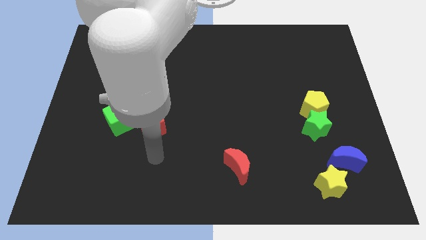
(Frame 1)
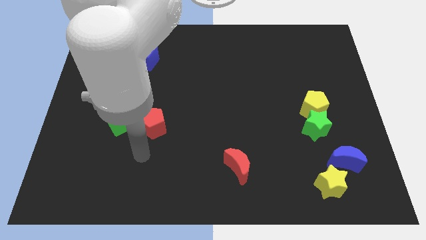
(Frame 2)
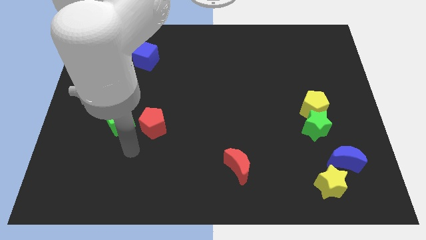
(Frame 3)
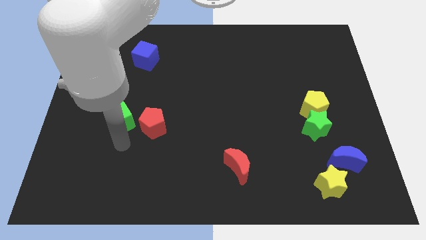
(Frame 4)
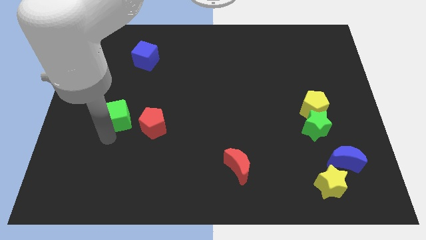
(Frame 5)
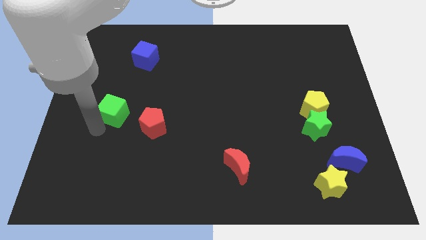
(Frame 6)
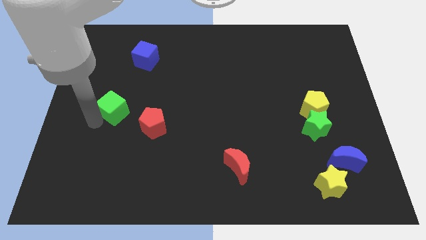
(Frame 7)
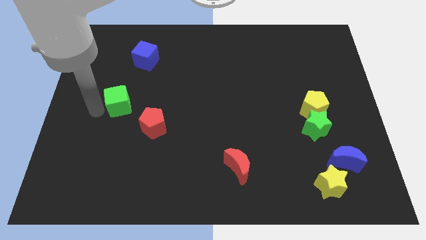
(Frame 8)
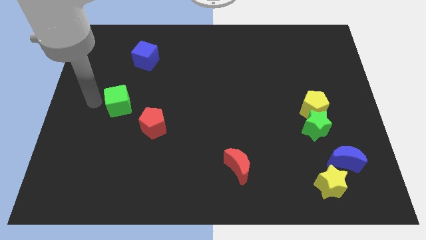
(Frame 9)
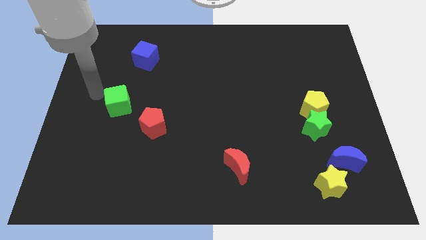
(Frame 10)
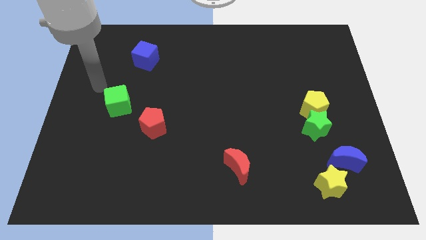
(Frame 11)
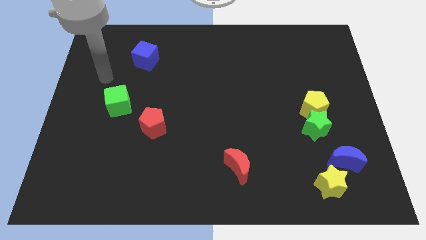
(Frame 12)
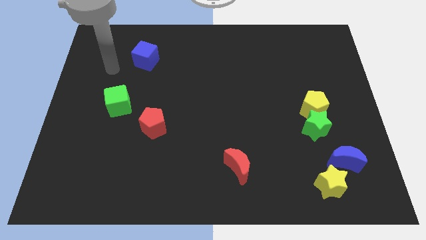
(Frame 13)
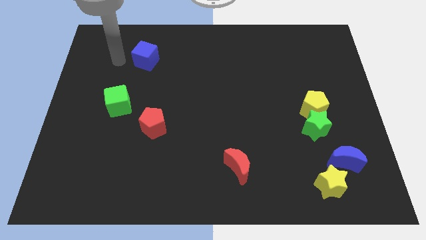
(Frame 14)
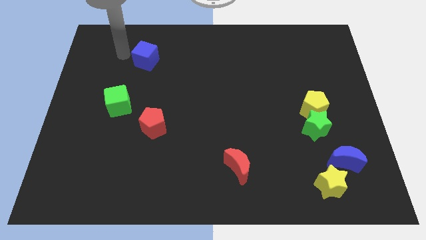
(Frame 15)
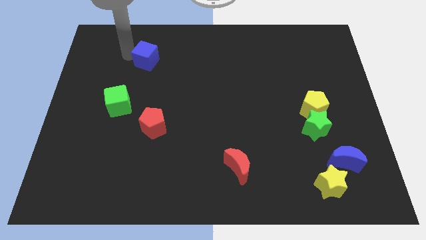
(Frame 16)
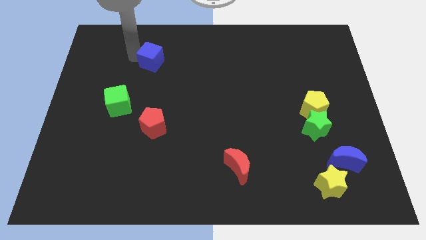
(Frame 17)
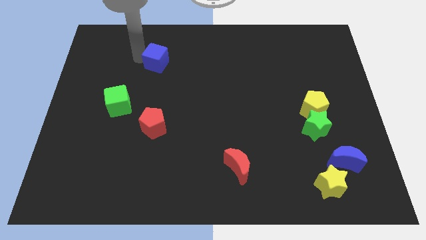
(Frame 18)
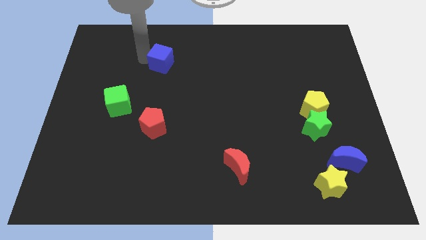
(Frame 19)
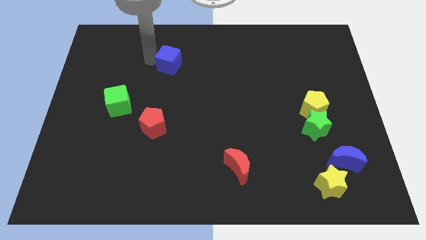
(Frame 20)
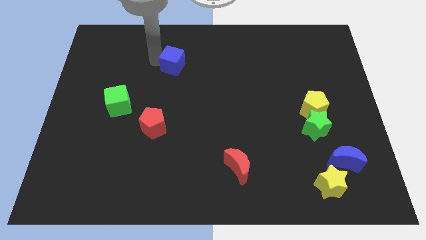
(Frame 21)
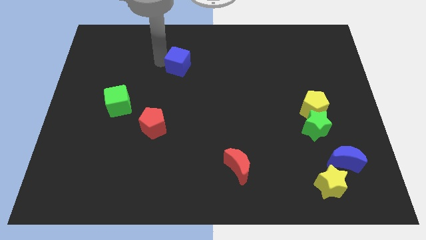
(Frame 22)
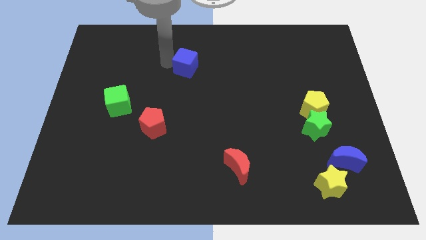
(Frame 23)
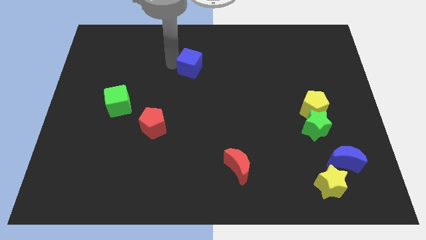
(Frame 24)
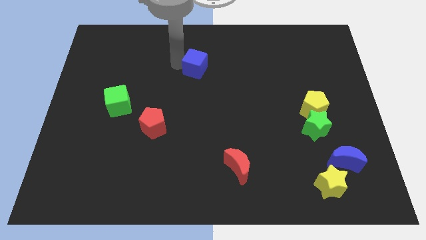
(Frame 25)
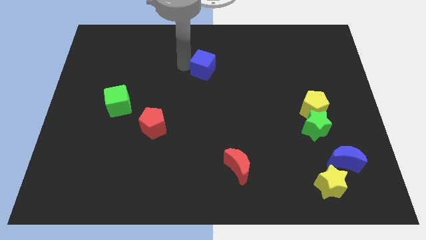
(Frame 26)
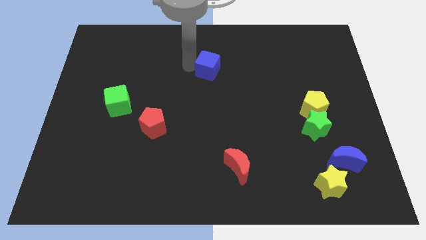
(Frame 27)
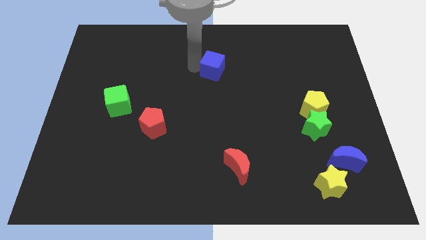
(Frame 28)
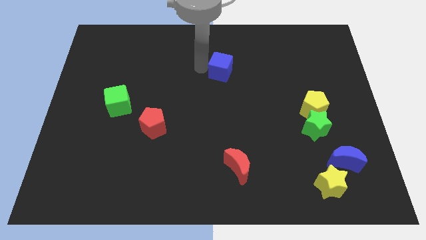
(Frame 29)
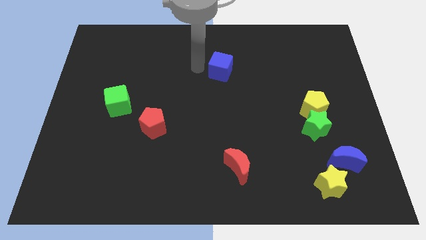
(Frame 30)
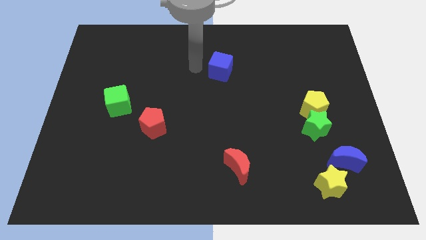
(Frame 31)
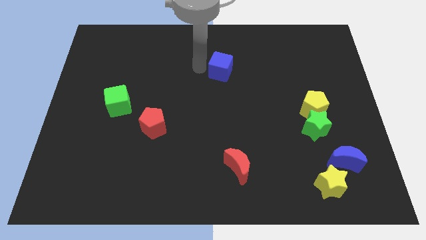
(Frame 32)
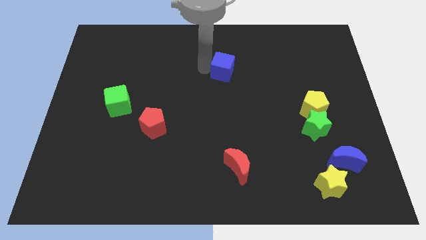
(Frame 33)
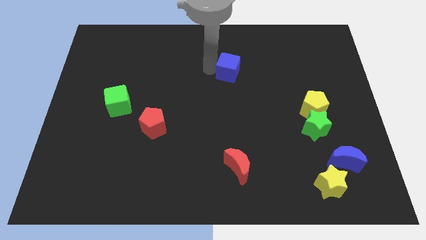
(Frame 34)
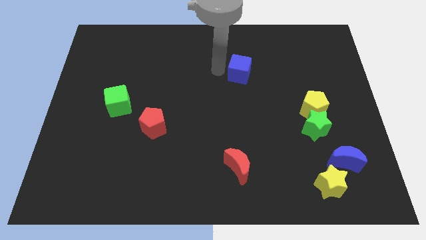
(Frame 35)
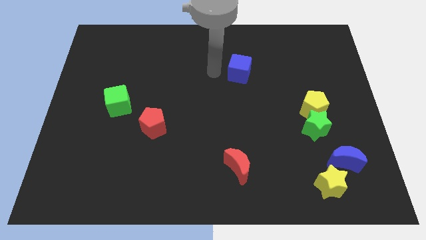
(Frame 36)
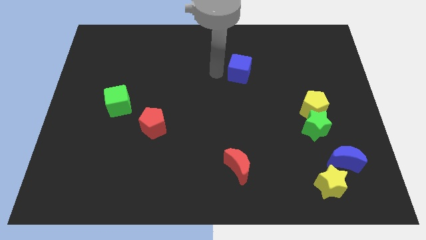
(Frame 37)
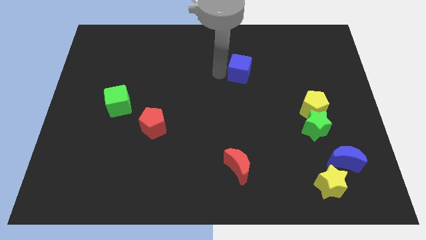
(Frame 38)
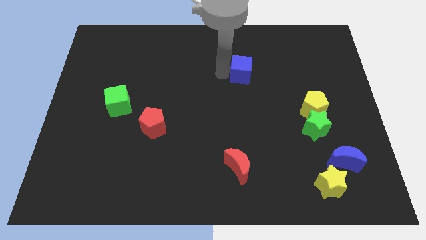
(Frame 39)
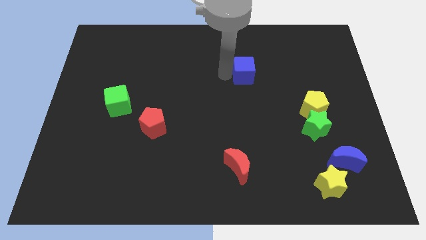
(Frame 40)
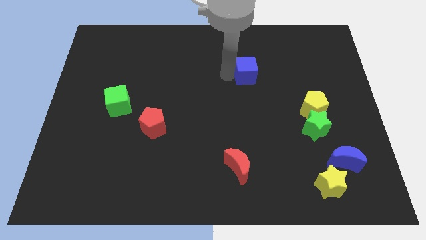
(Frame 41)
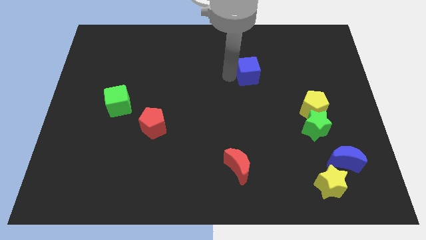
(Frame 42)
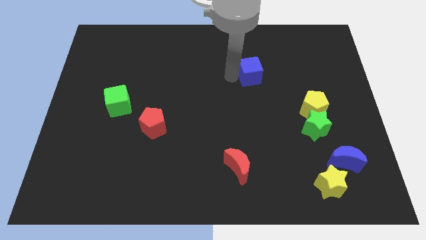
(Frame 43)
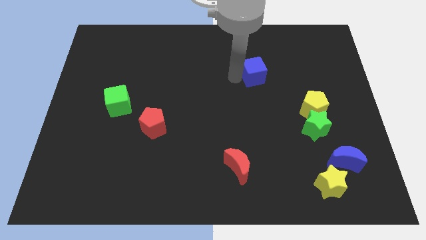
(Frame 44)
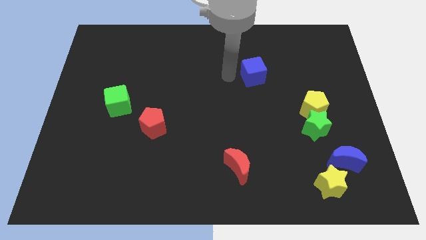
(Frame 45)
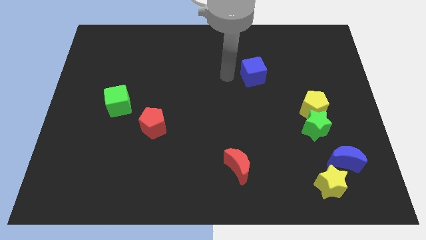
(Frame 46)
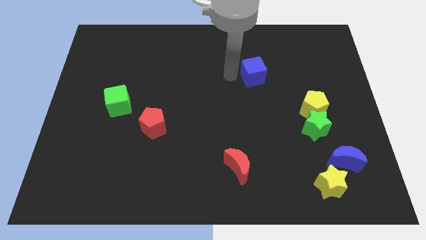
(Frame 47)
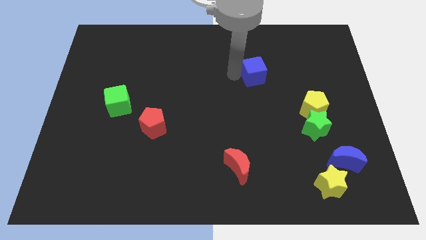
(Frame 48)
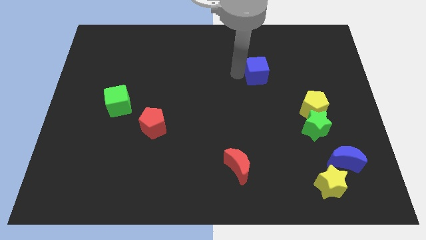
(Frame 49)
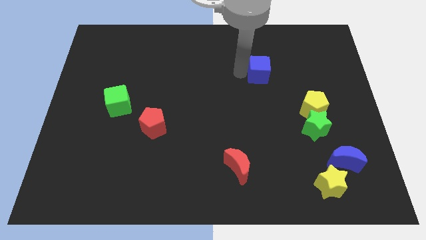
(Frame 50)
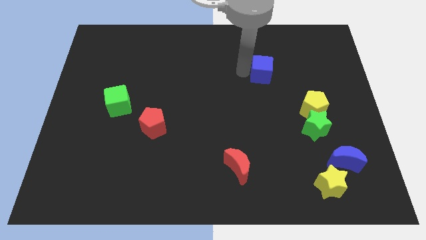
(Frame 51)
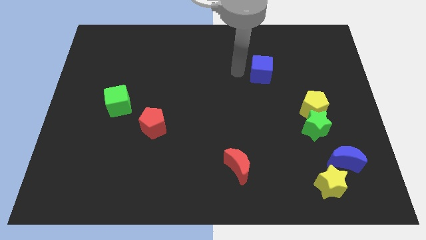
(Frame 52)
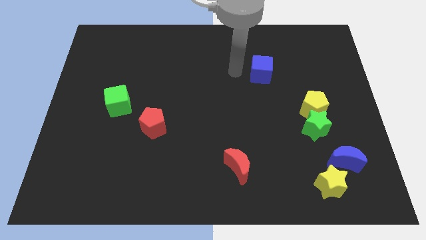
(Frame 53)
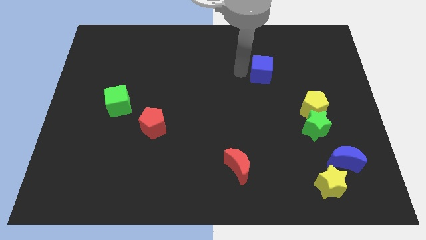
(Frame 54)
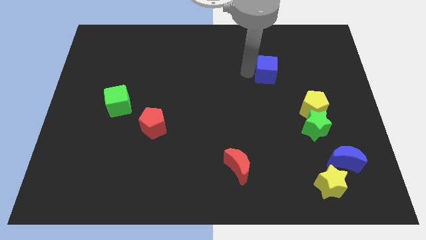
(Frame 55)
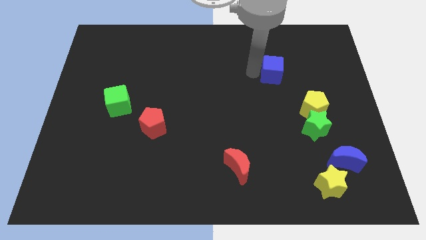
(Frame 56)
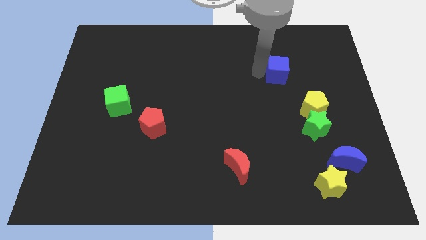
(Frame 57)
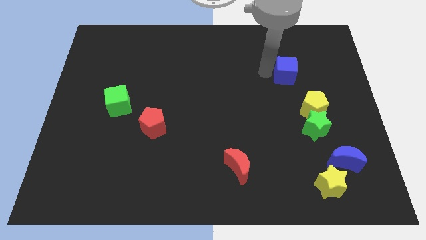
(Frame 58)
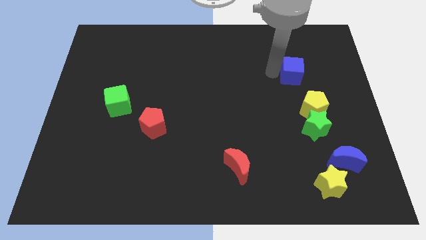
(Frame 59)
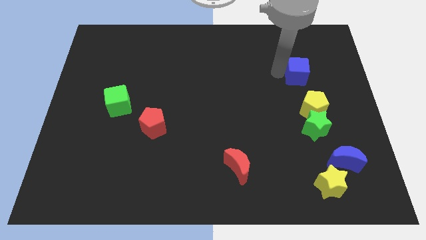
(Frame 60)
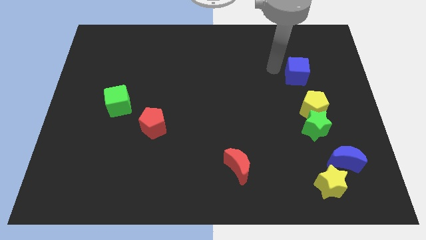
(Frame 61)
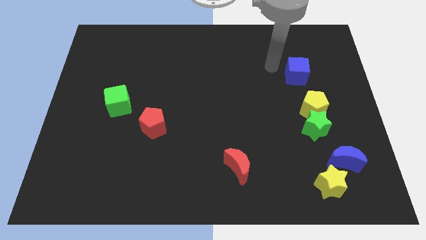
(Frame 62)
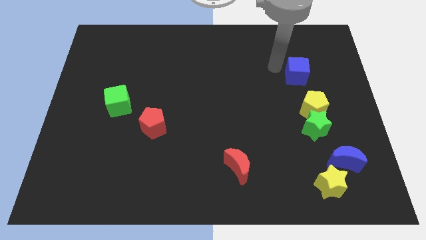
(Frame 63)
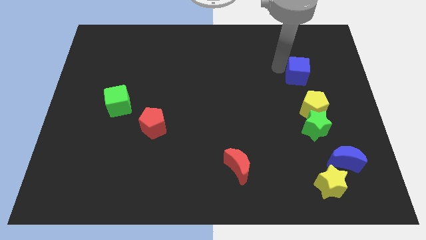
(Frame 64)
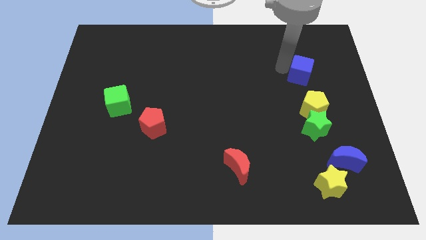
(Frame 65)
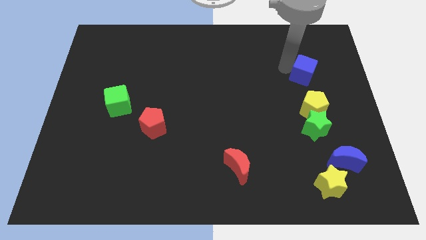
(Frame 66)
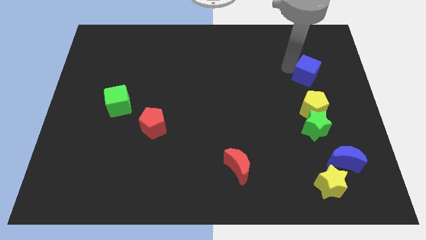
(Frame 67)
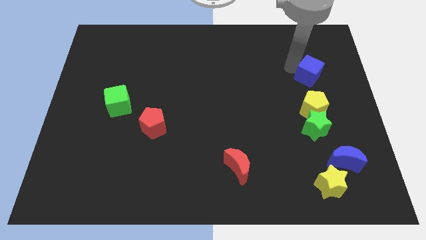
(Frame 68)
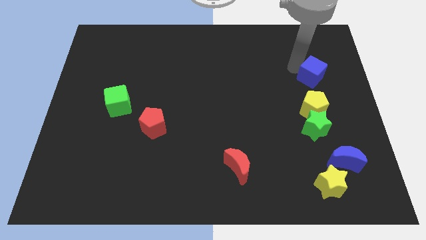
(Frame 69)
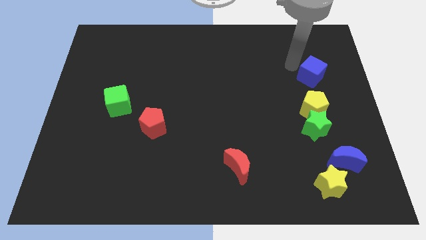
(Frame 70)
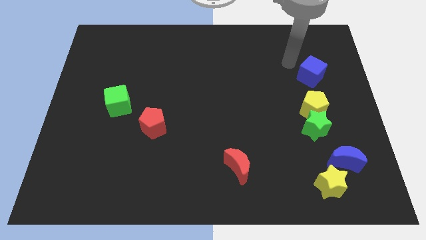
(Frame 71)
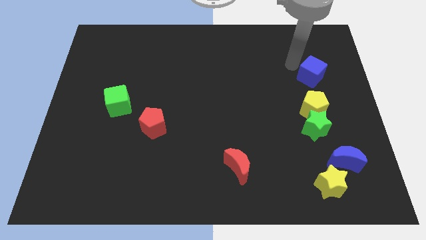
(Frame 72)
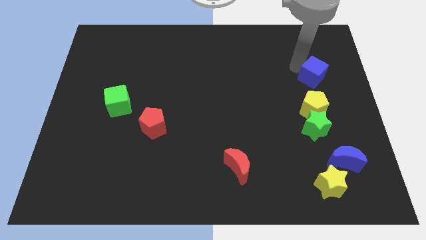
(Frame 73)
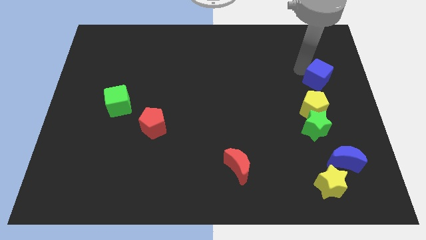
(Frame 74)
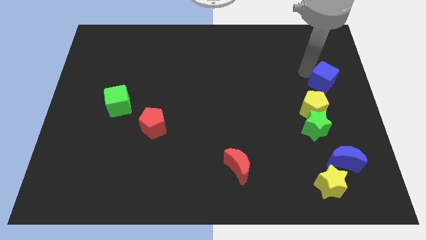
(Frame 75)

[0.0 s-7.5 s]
push the blue cube to the right side of the board
